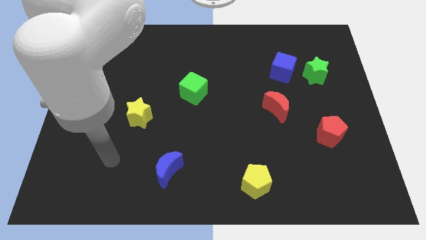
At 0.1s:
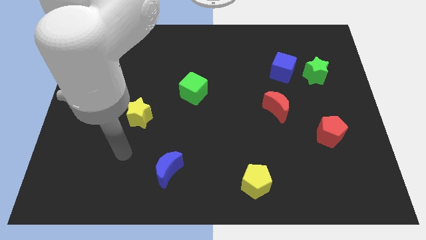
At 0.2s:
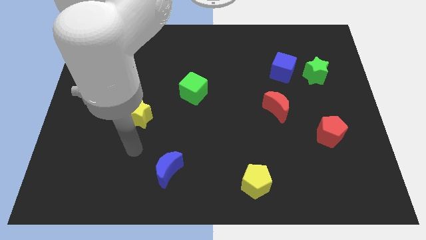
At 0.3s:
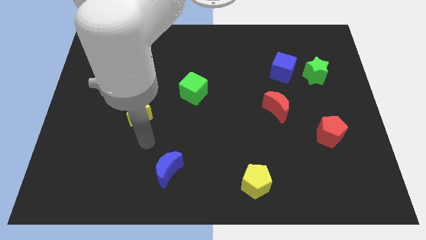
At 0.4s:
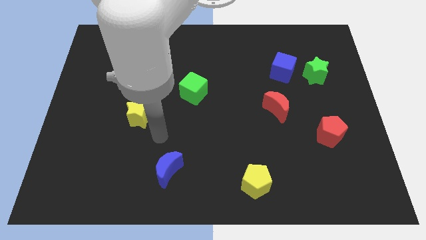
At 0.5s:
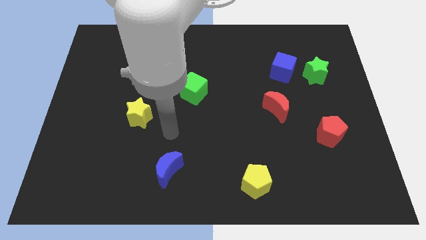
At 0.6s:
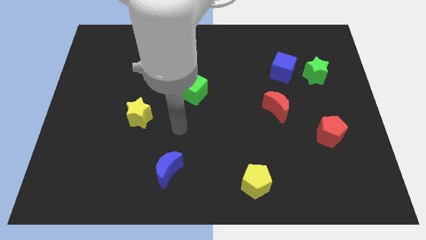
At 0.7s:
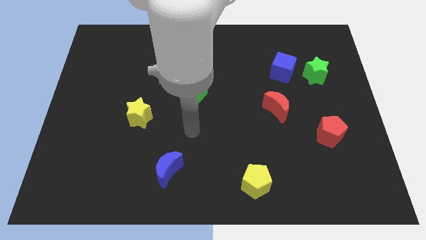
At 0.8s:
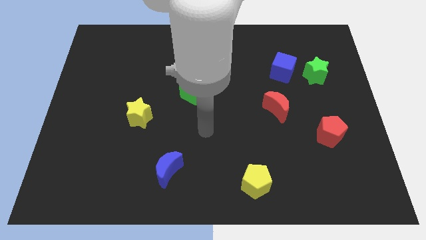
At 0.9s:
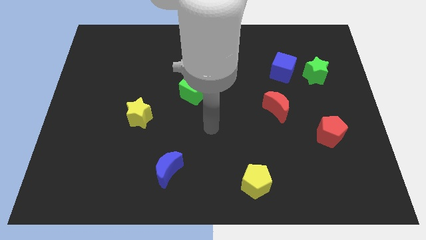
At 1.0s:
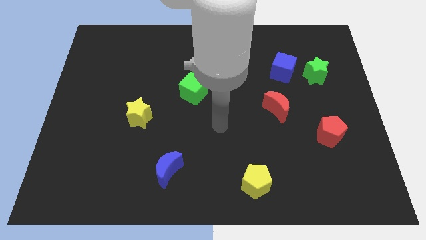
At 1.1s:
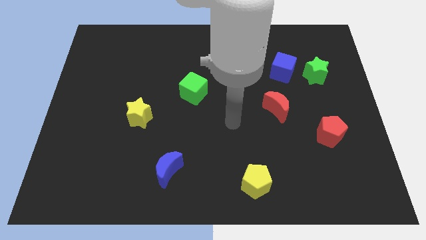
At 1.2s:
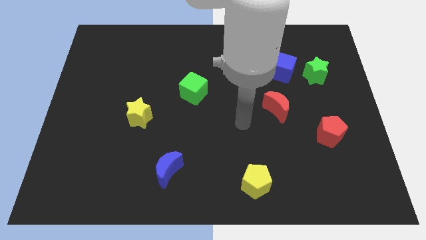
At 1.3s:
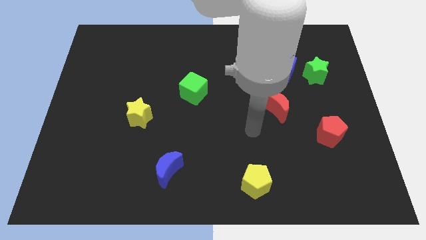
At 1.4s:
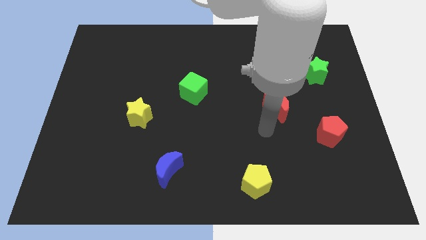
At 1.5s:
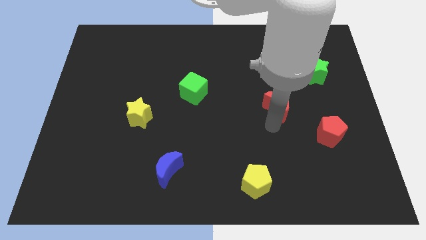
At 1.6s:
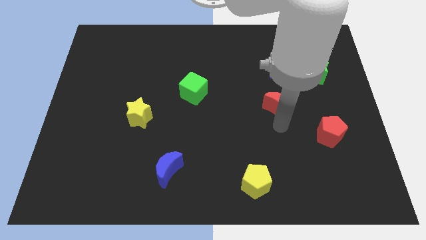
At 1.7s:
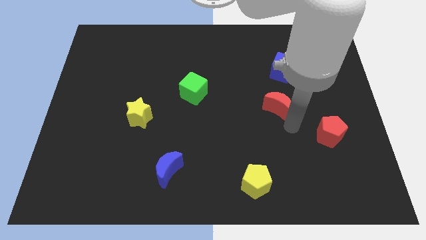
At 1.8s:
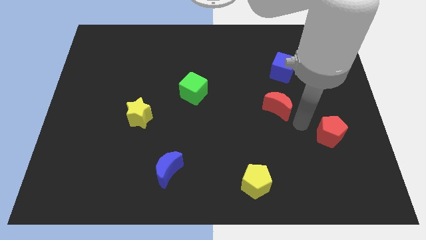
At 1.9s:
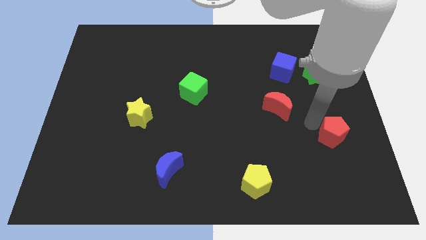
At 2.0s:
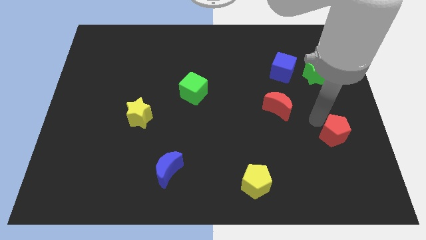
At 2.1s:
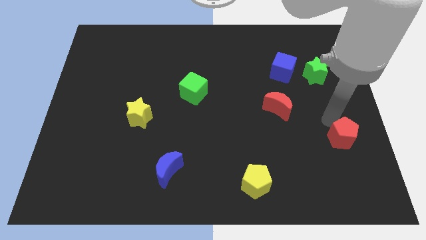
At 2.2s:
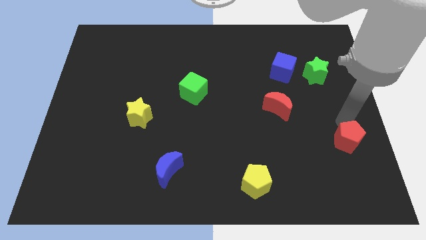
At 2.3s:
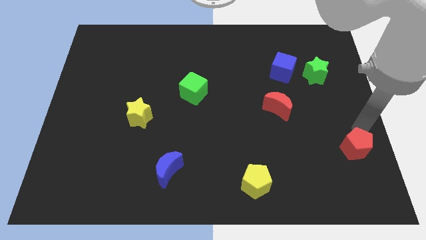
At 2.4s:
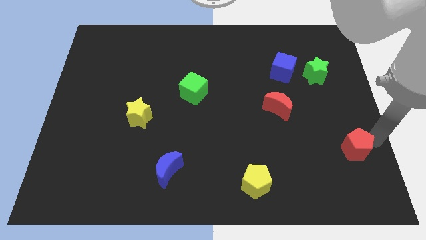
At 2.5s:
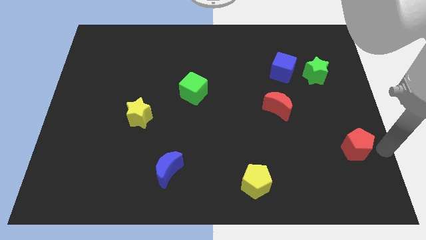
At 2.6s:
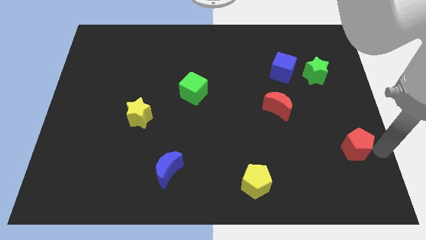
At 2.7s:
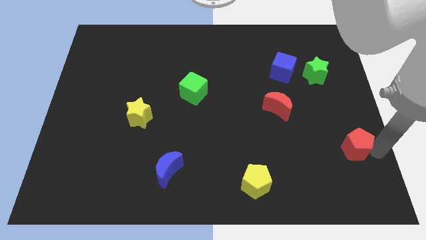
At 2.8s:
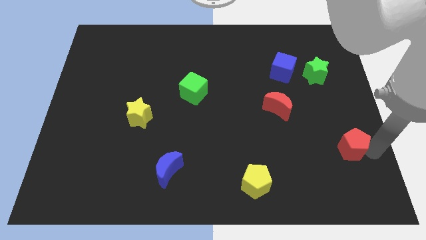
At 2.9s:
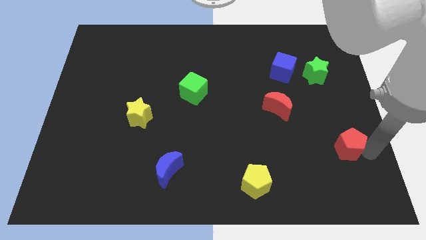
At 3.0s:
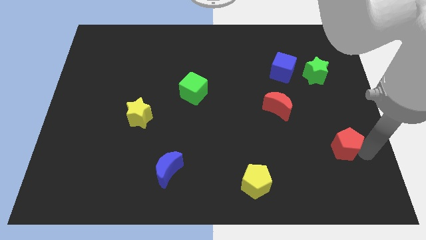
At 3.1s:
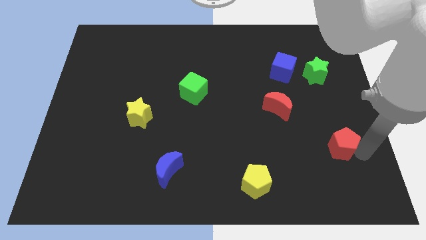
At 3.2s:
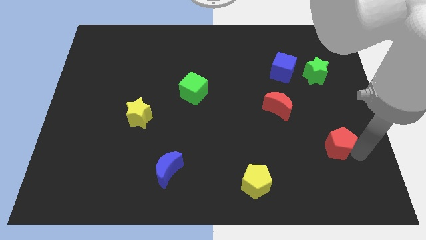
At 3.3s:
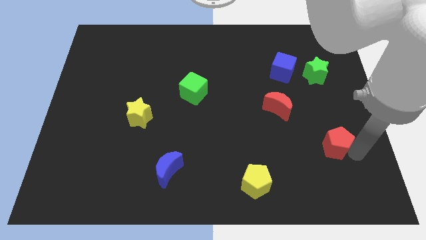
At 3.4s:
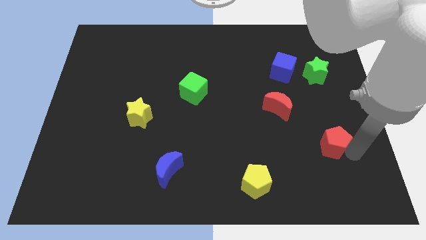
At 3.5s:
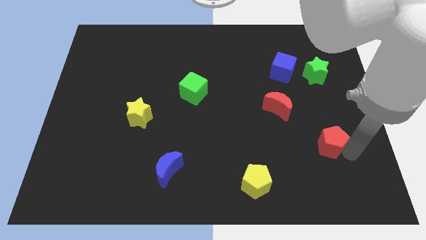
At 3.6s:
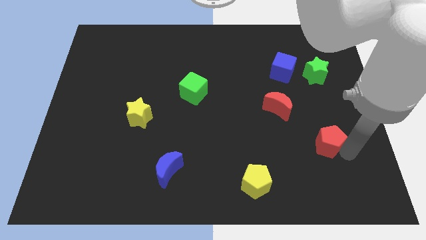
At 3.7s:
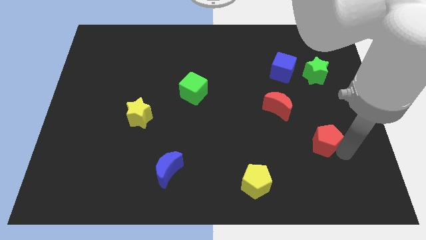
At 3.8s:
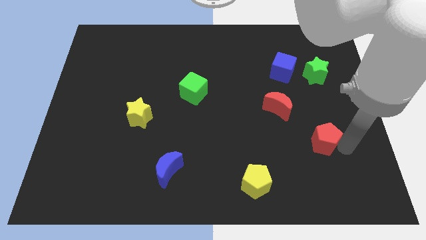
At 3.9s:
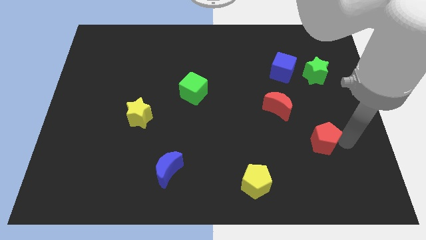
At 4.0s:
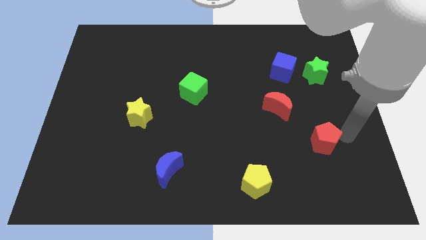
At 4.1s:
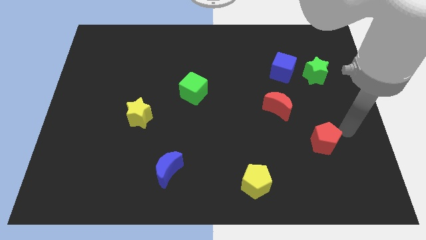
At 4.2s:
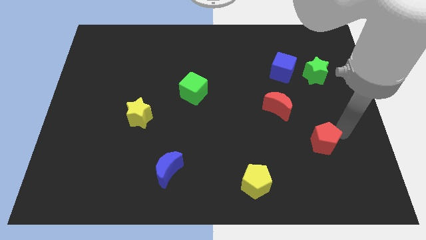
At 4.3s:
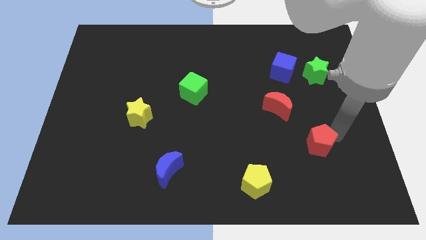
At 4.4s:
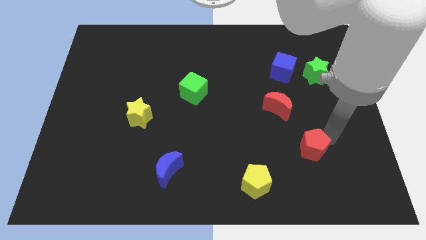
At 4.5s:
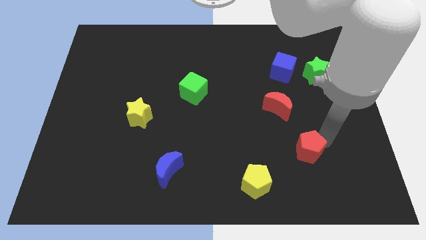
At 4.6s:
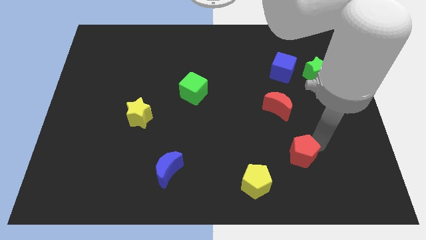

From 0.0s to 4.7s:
slide the red pentagon to the top right of the yellow pentagon

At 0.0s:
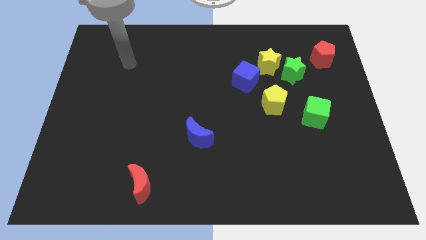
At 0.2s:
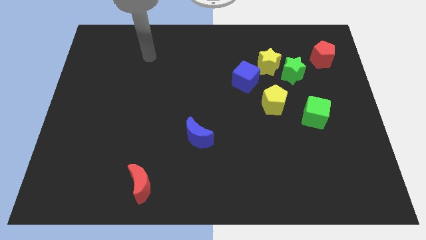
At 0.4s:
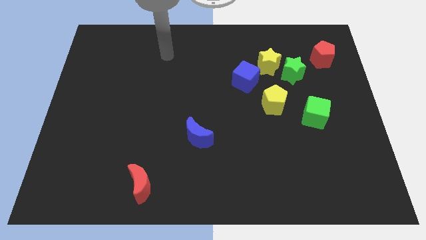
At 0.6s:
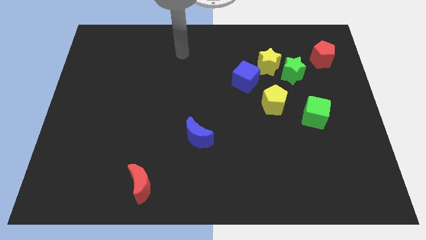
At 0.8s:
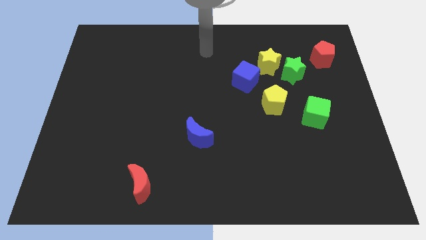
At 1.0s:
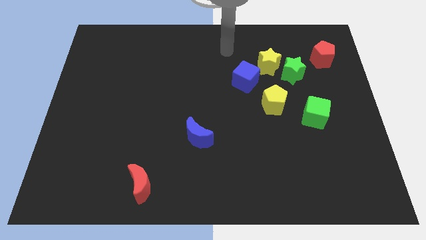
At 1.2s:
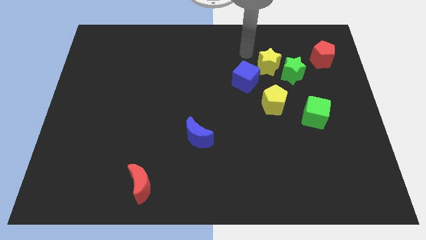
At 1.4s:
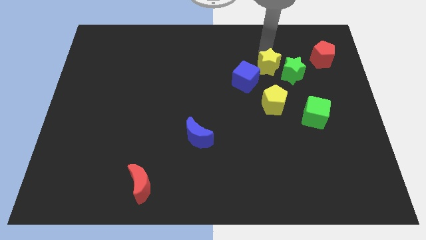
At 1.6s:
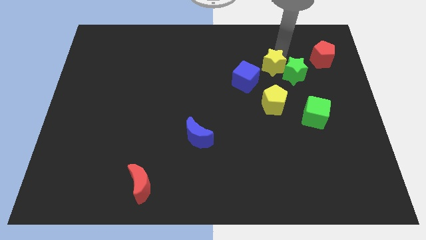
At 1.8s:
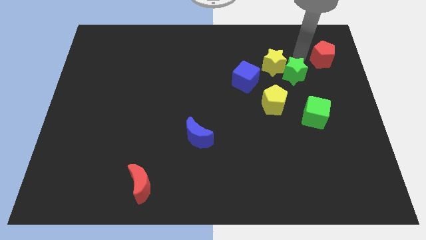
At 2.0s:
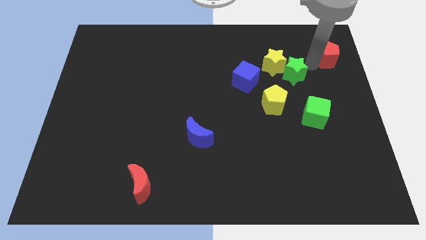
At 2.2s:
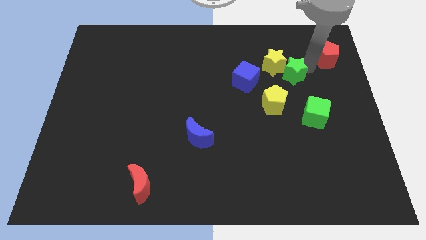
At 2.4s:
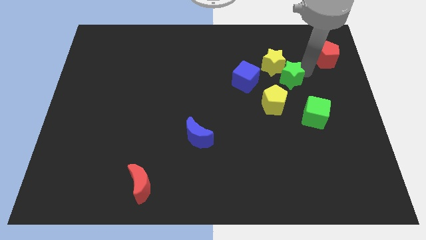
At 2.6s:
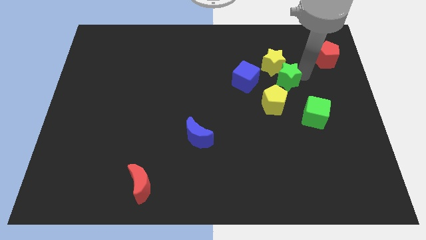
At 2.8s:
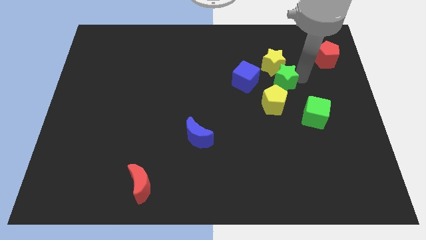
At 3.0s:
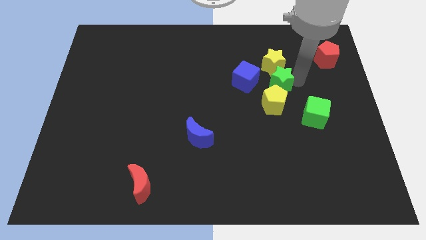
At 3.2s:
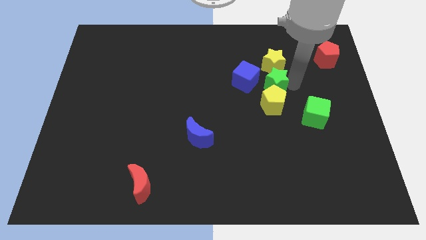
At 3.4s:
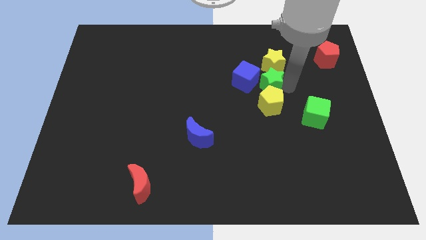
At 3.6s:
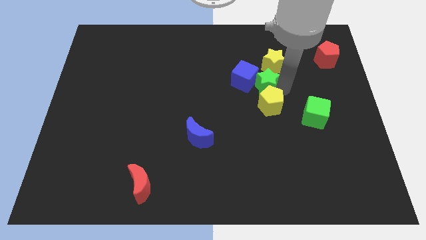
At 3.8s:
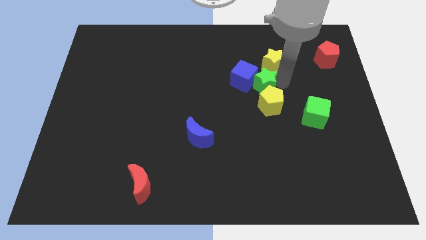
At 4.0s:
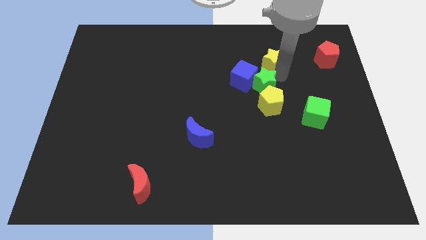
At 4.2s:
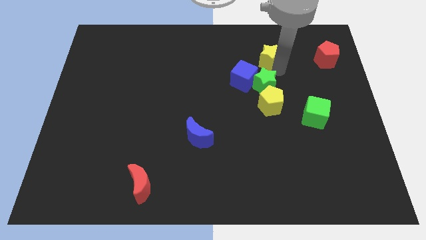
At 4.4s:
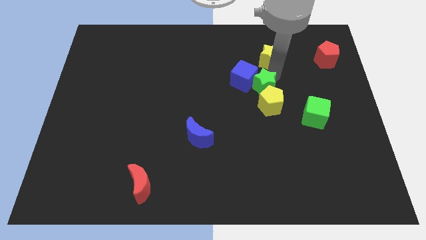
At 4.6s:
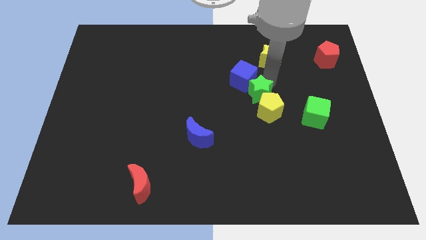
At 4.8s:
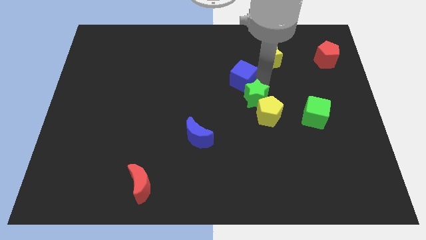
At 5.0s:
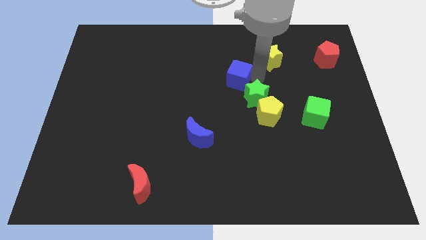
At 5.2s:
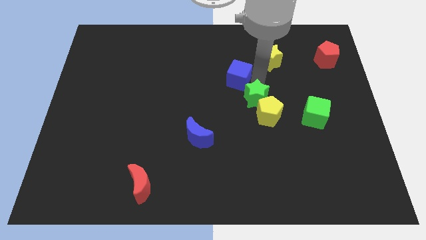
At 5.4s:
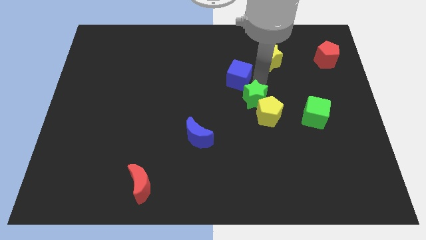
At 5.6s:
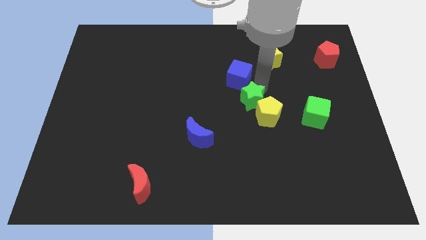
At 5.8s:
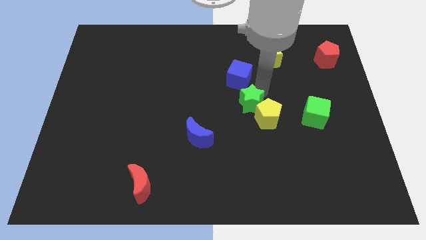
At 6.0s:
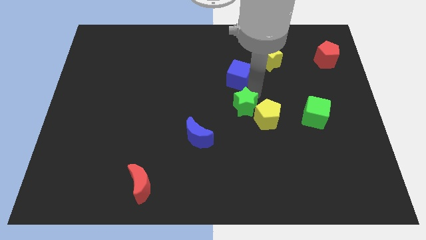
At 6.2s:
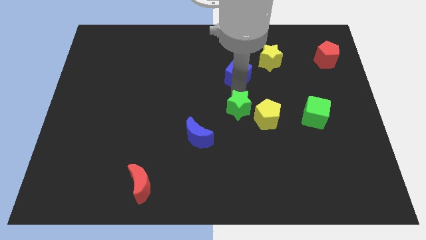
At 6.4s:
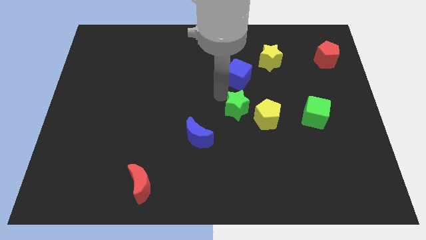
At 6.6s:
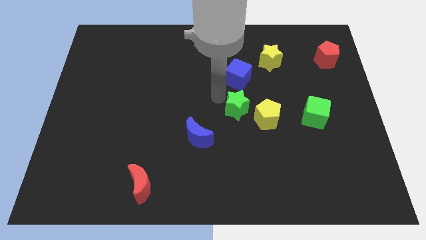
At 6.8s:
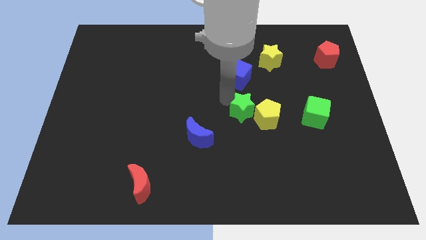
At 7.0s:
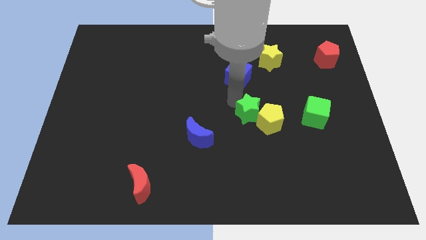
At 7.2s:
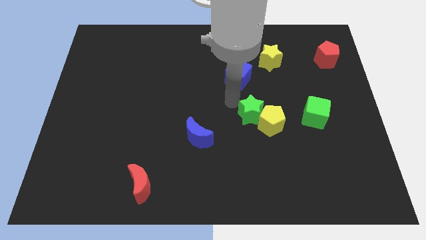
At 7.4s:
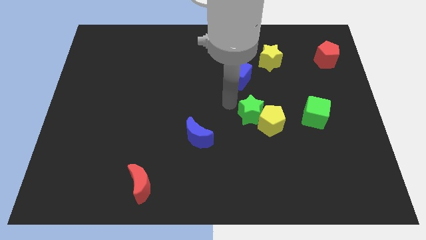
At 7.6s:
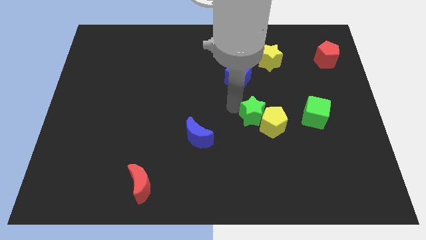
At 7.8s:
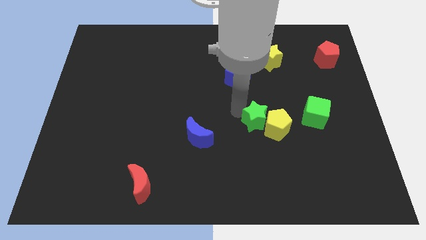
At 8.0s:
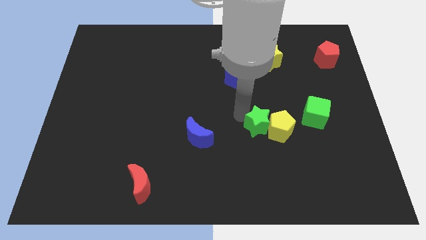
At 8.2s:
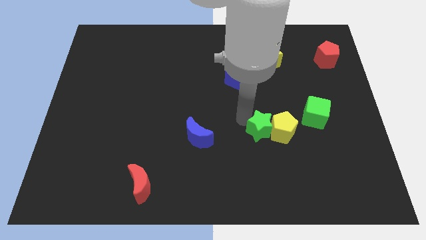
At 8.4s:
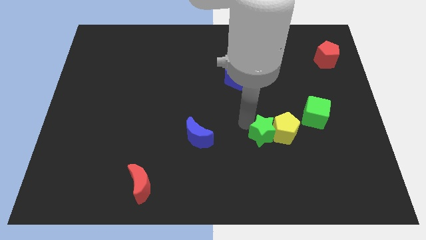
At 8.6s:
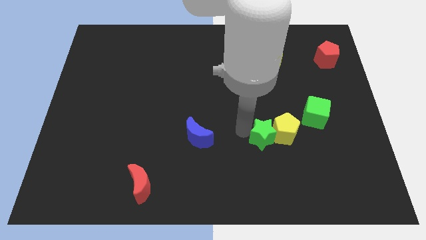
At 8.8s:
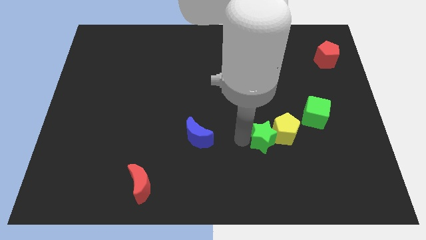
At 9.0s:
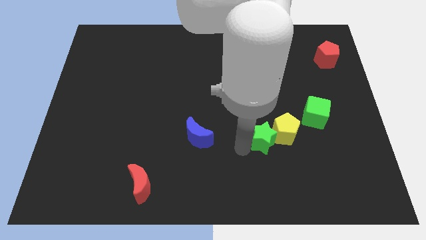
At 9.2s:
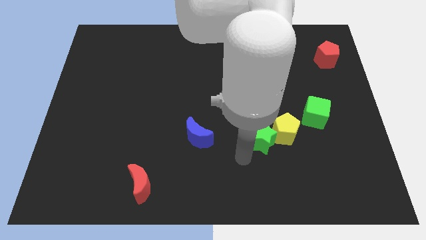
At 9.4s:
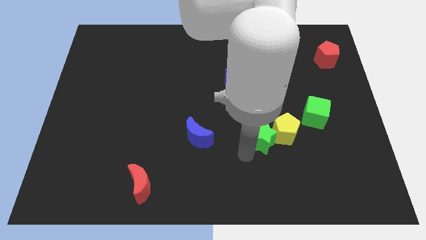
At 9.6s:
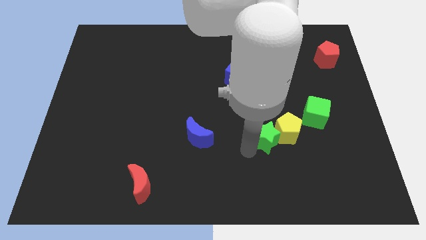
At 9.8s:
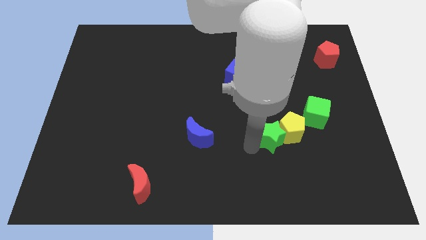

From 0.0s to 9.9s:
slide the green star diagonally down and to the left of the green cube
